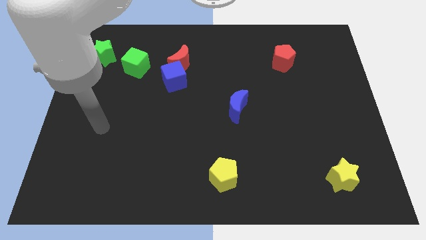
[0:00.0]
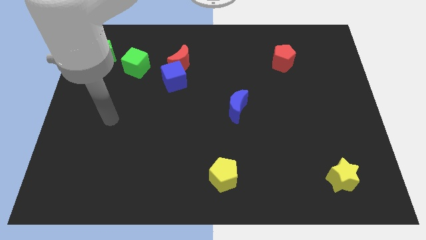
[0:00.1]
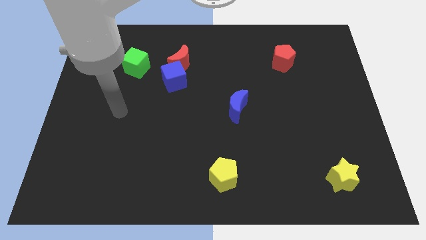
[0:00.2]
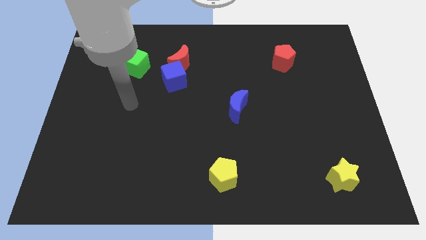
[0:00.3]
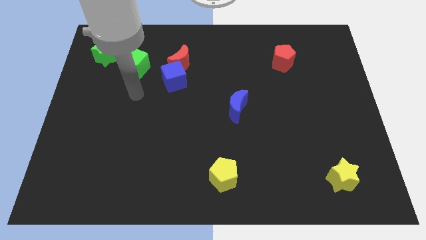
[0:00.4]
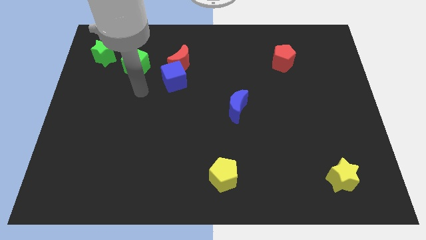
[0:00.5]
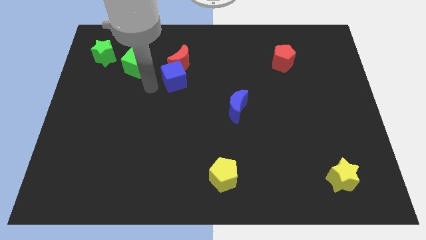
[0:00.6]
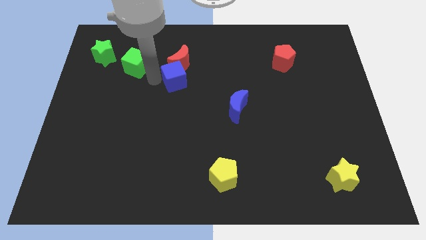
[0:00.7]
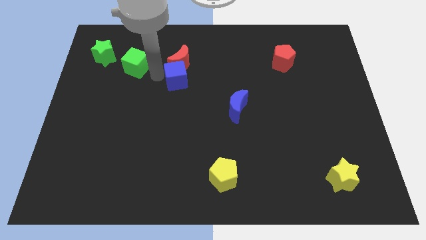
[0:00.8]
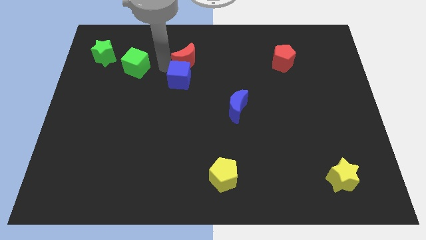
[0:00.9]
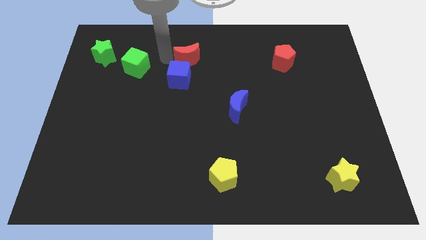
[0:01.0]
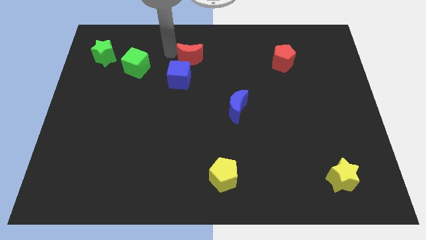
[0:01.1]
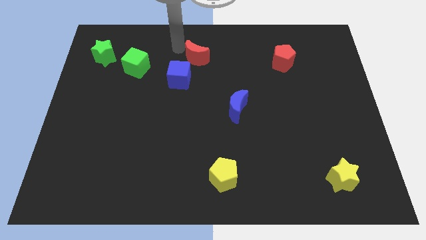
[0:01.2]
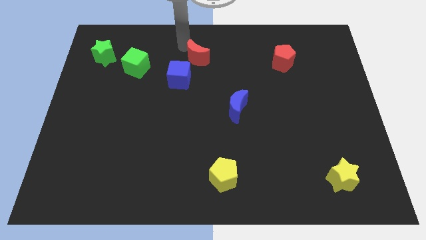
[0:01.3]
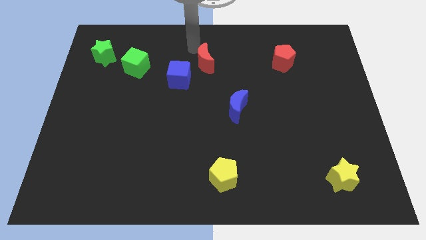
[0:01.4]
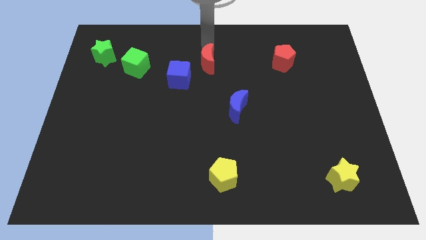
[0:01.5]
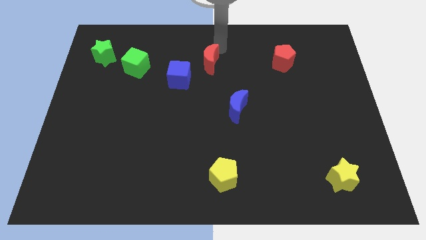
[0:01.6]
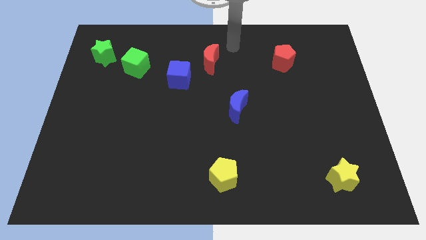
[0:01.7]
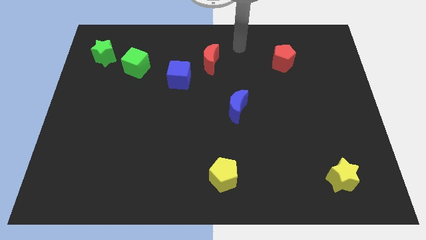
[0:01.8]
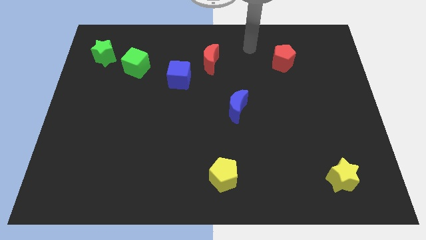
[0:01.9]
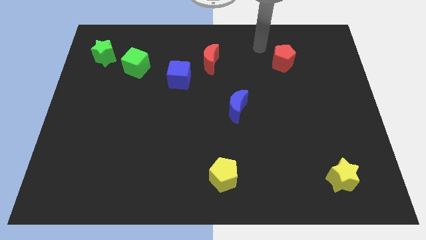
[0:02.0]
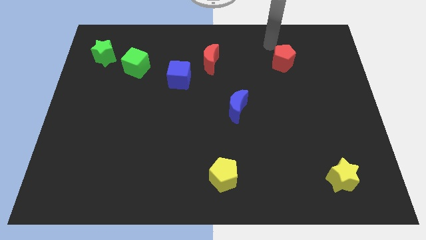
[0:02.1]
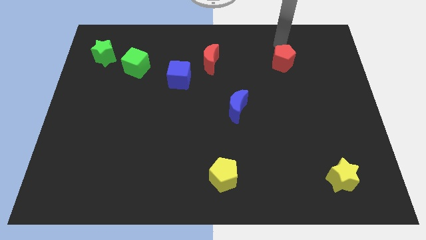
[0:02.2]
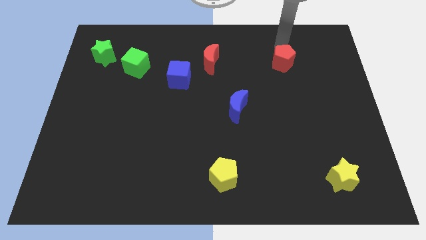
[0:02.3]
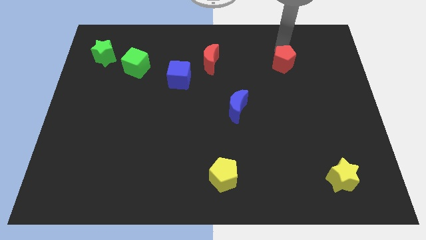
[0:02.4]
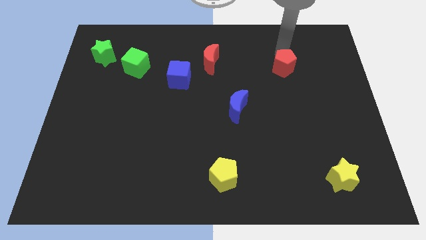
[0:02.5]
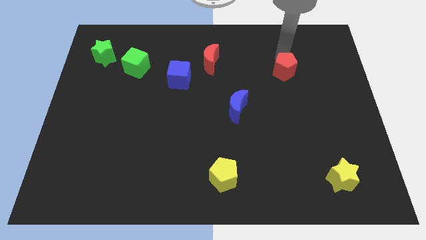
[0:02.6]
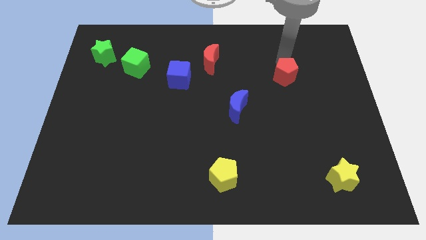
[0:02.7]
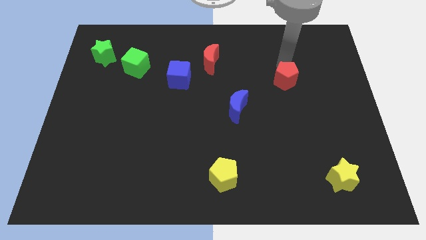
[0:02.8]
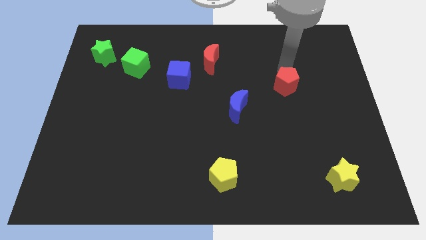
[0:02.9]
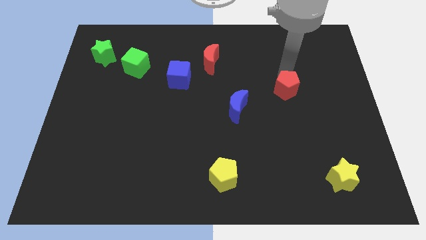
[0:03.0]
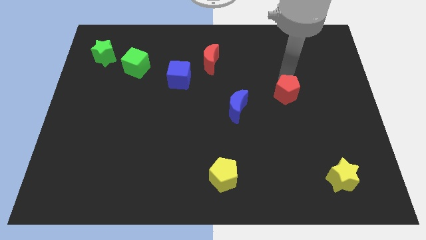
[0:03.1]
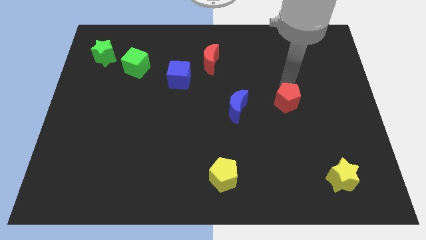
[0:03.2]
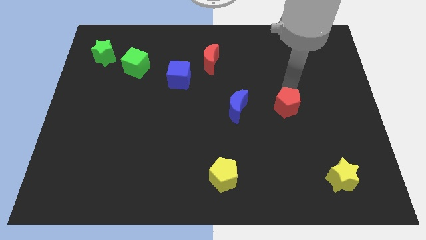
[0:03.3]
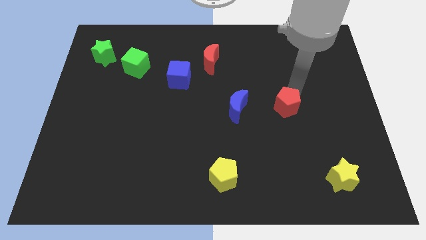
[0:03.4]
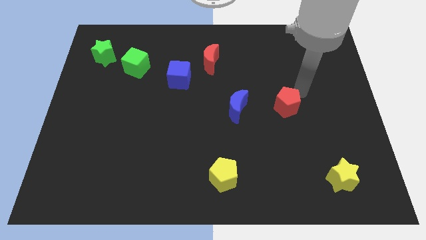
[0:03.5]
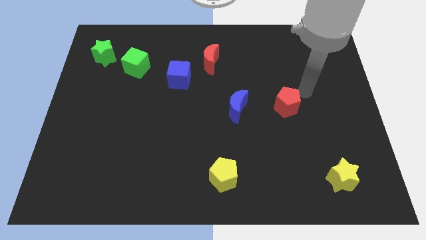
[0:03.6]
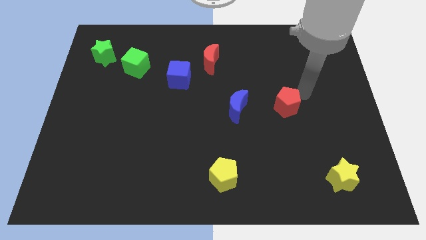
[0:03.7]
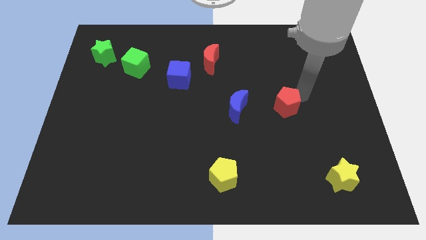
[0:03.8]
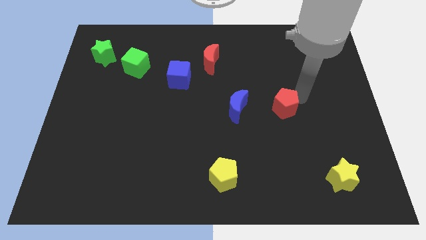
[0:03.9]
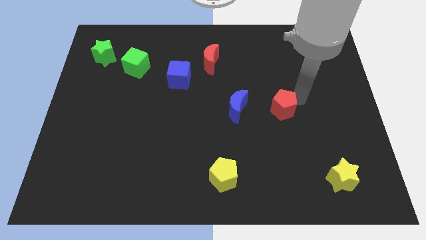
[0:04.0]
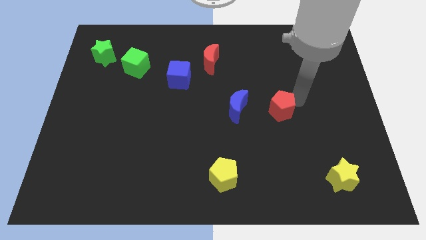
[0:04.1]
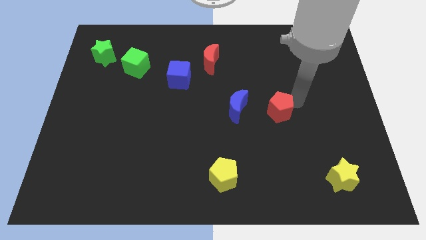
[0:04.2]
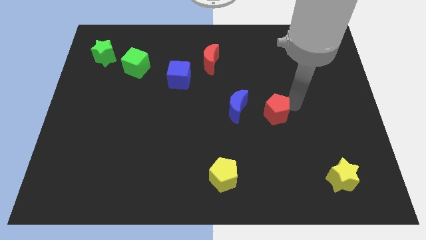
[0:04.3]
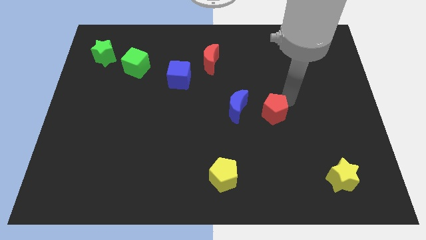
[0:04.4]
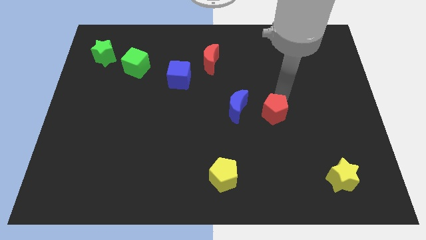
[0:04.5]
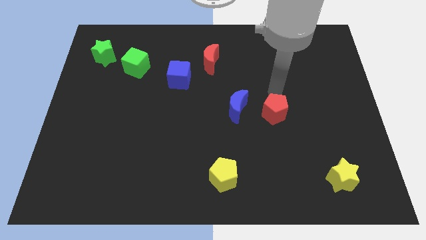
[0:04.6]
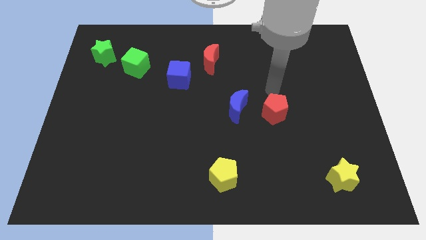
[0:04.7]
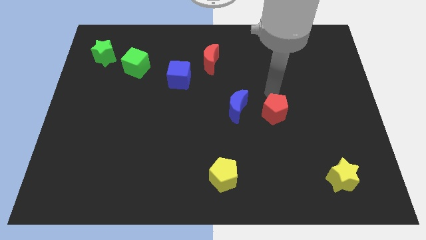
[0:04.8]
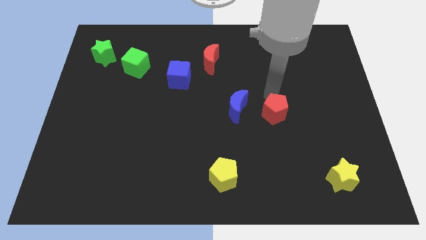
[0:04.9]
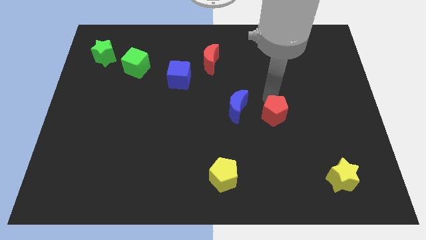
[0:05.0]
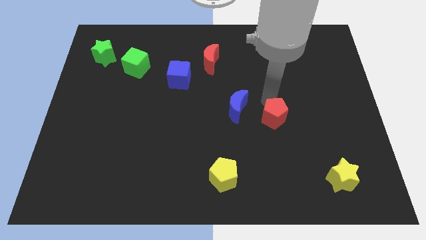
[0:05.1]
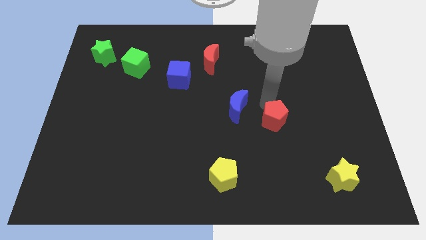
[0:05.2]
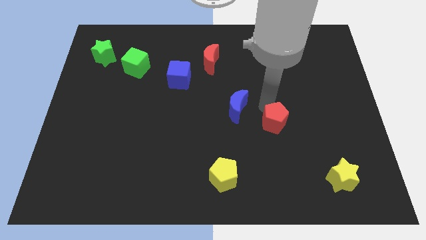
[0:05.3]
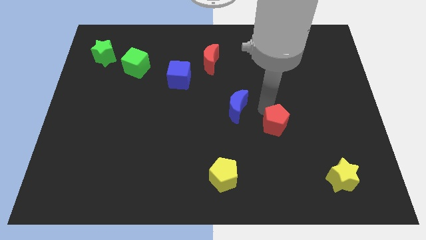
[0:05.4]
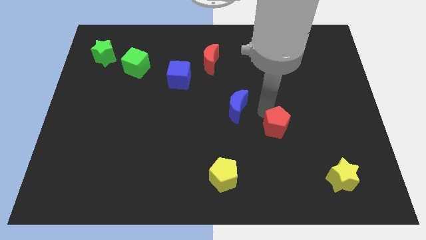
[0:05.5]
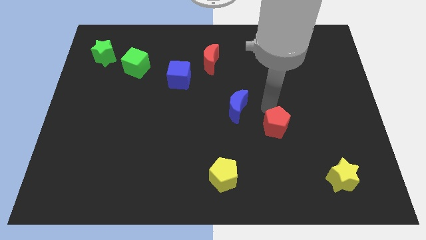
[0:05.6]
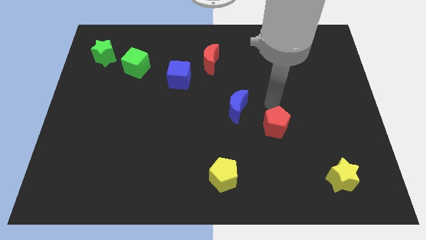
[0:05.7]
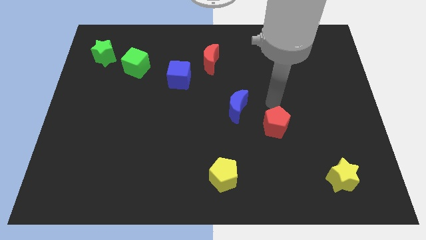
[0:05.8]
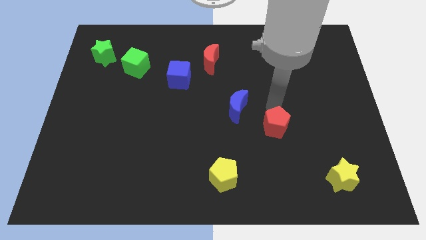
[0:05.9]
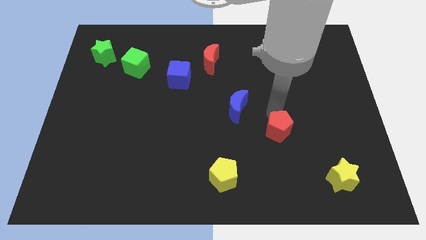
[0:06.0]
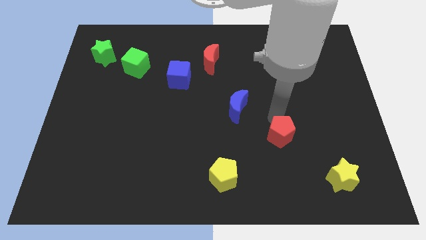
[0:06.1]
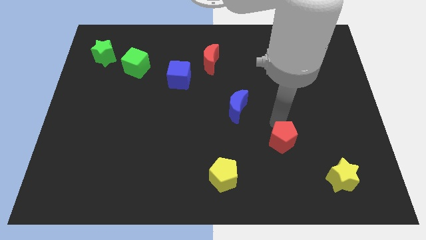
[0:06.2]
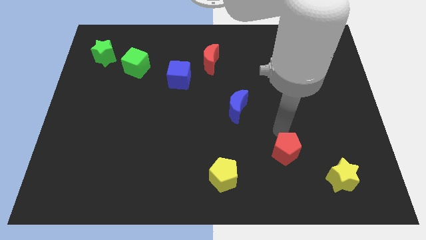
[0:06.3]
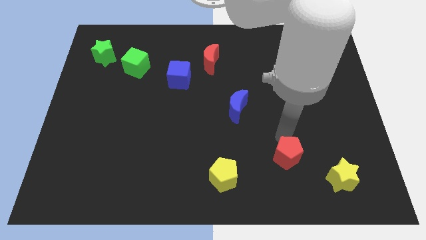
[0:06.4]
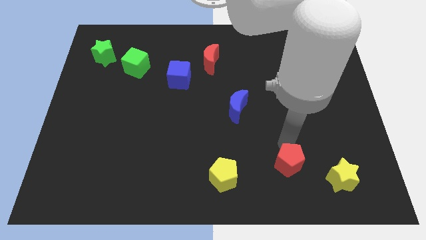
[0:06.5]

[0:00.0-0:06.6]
push the red pentagon to the right side of the yellow pentagon

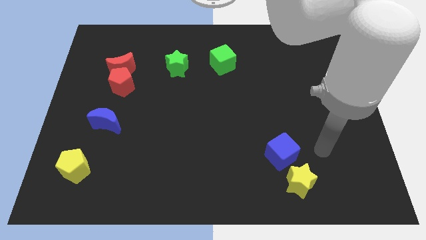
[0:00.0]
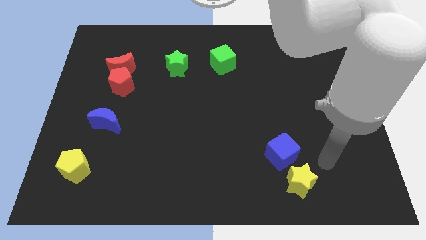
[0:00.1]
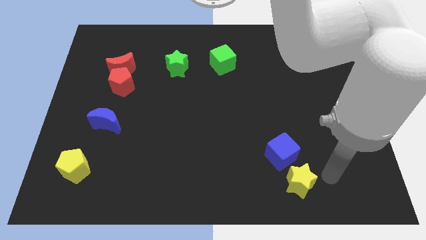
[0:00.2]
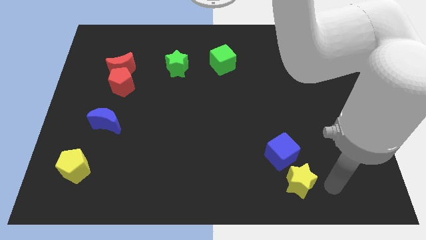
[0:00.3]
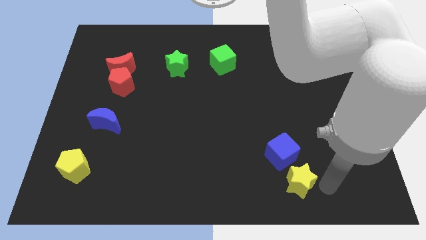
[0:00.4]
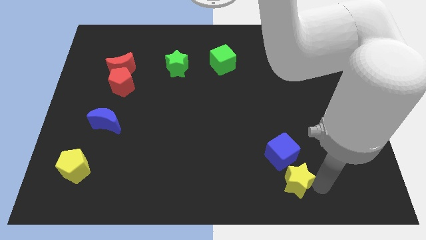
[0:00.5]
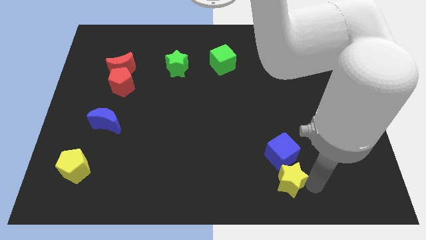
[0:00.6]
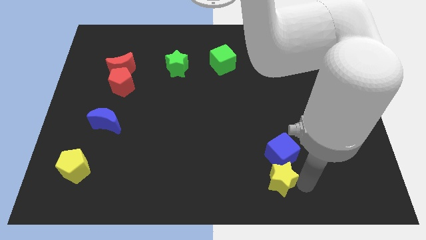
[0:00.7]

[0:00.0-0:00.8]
move the yellow star to the bottom left of the blue cube
